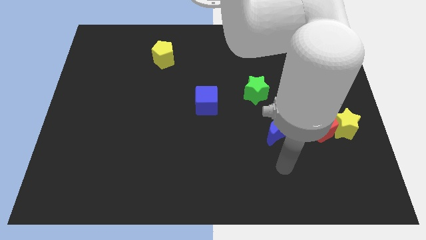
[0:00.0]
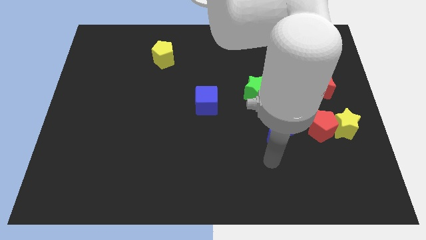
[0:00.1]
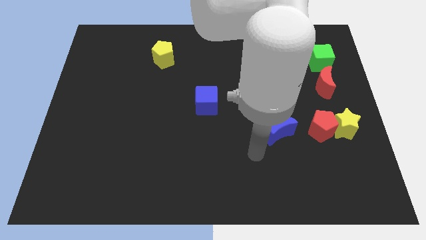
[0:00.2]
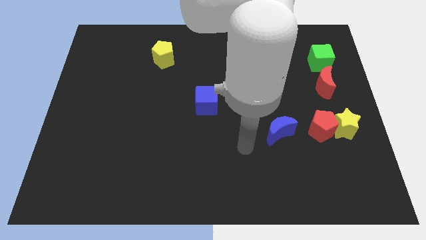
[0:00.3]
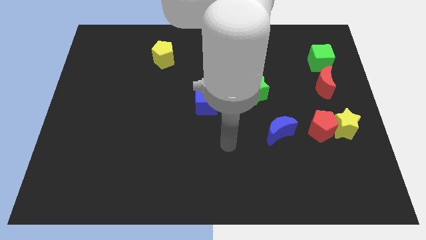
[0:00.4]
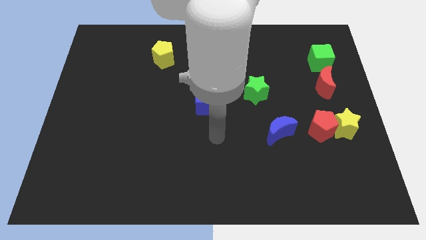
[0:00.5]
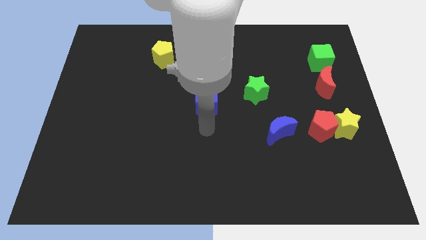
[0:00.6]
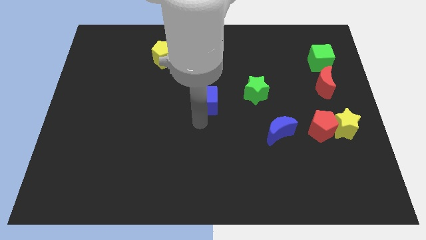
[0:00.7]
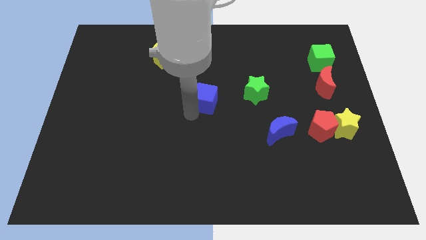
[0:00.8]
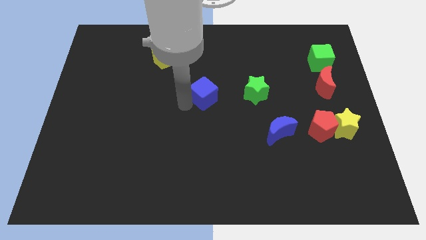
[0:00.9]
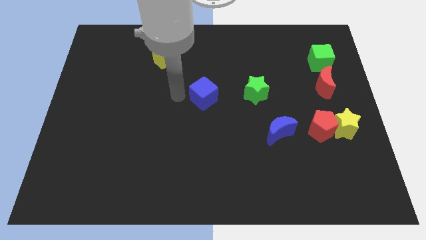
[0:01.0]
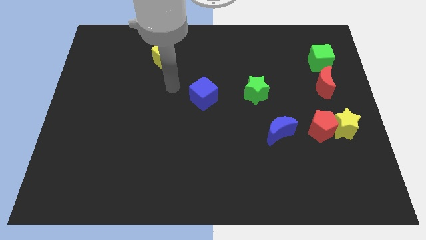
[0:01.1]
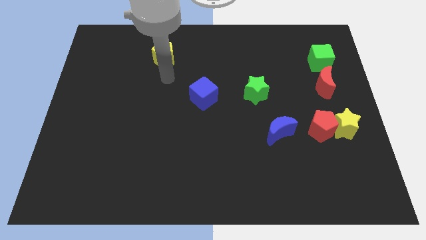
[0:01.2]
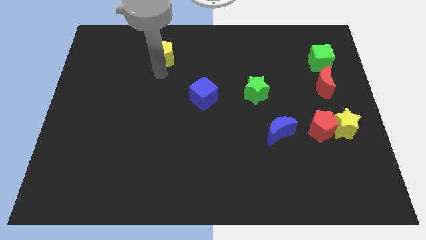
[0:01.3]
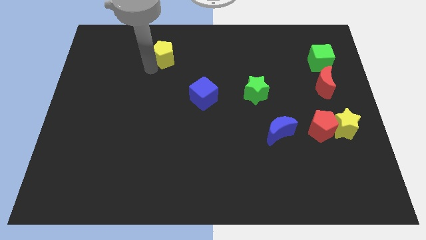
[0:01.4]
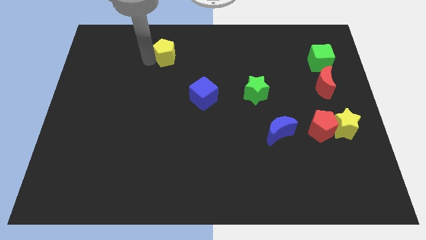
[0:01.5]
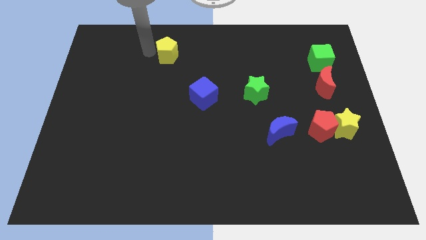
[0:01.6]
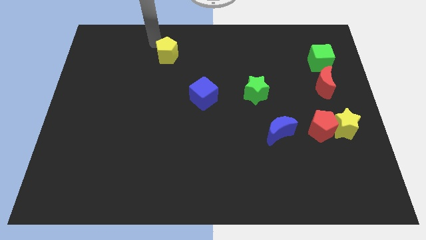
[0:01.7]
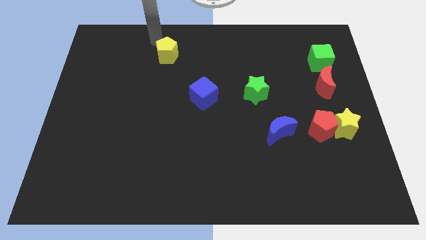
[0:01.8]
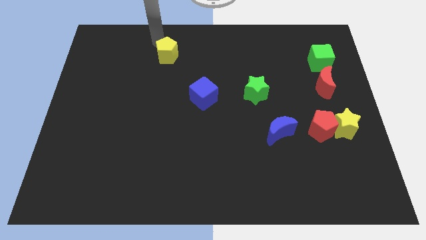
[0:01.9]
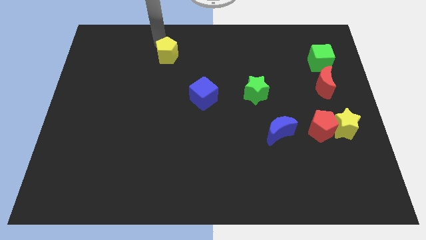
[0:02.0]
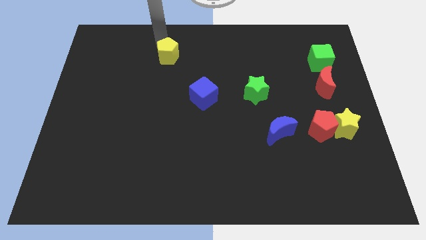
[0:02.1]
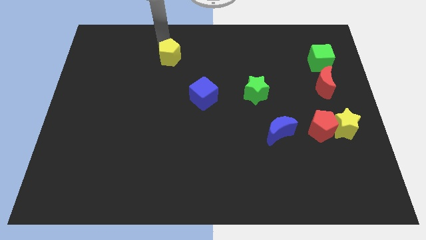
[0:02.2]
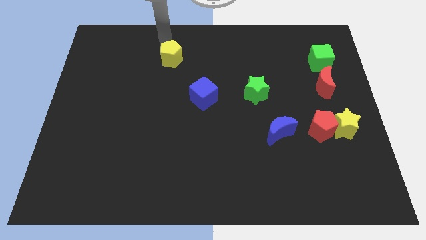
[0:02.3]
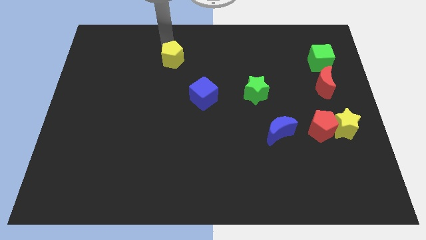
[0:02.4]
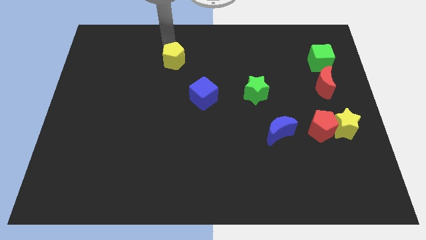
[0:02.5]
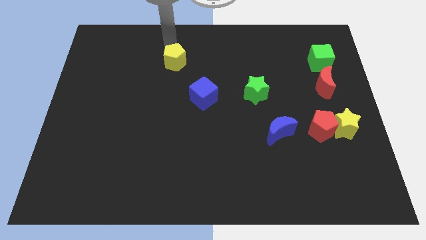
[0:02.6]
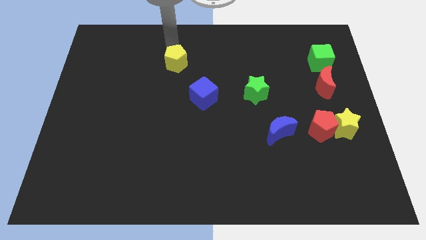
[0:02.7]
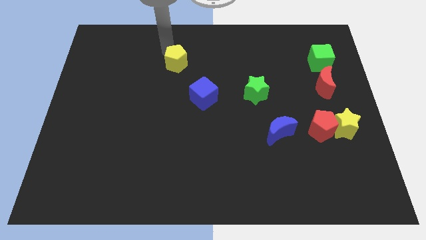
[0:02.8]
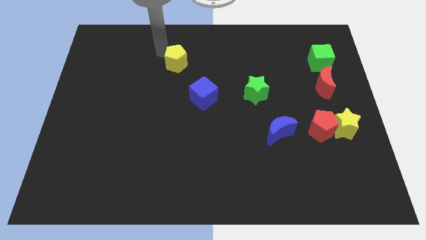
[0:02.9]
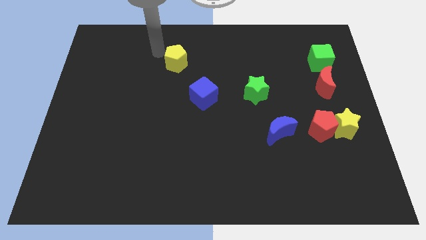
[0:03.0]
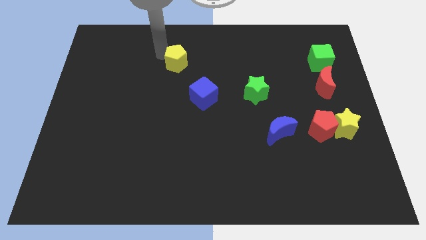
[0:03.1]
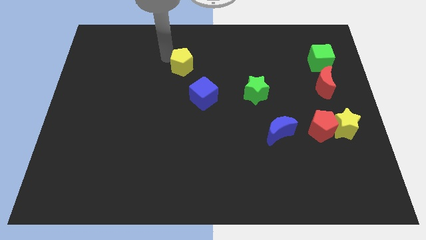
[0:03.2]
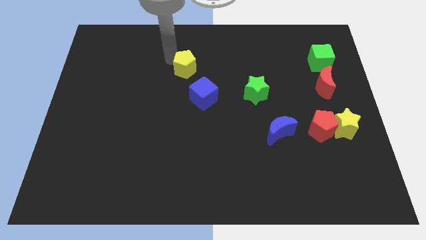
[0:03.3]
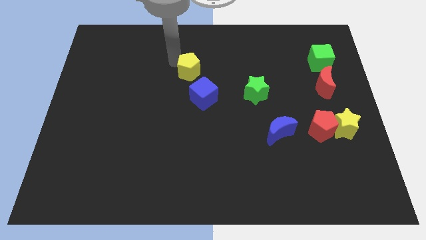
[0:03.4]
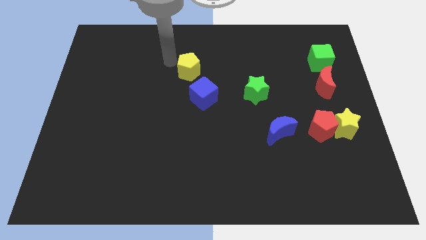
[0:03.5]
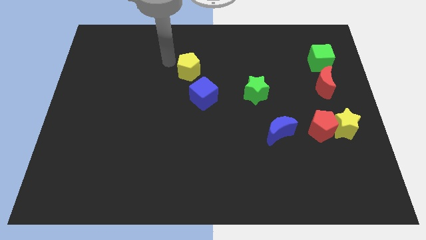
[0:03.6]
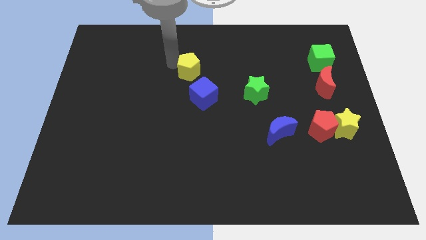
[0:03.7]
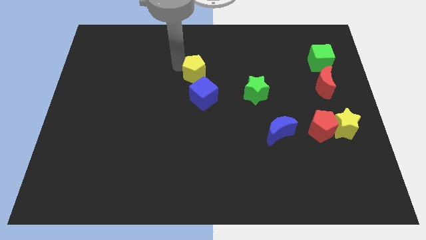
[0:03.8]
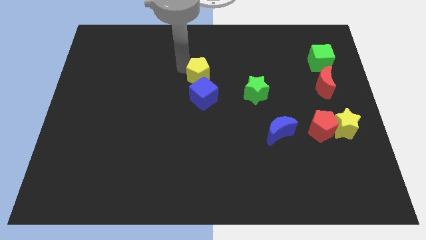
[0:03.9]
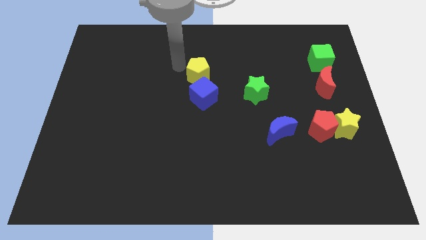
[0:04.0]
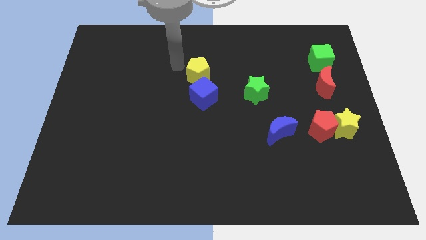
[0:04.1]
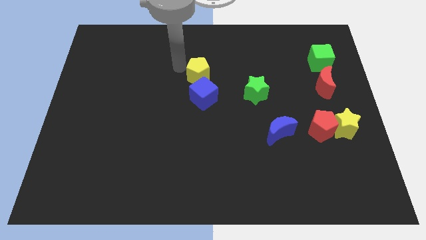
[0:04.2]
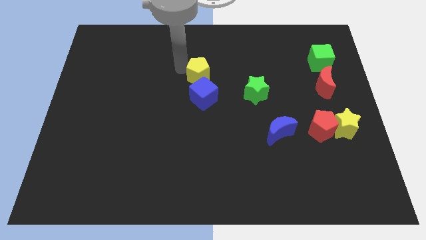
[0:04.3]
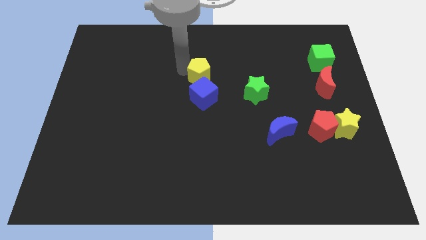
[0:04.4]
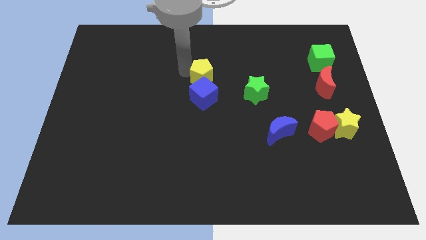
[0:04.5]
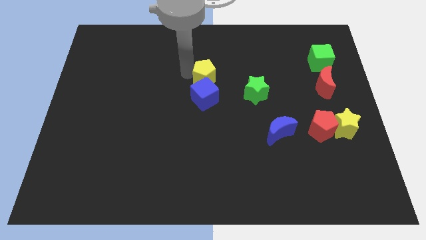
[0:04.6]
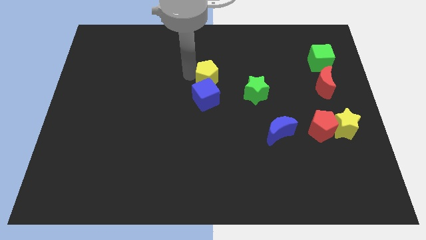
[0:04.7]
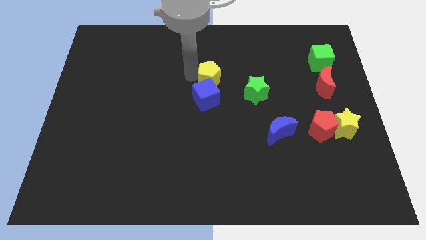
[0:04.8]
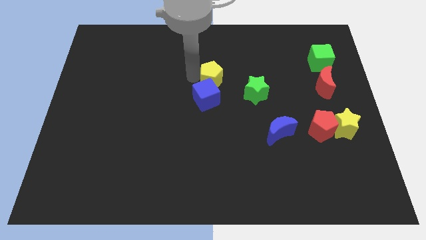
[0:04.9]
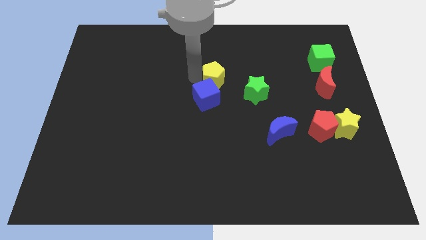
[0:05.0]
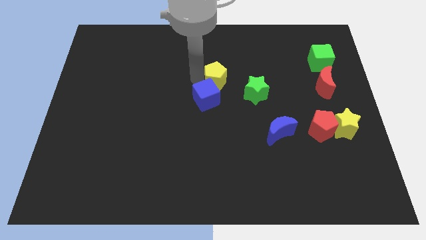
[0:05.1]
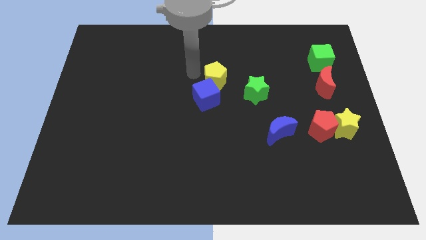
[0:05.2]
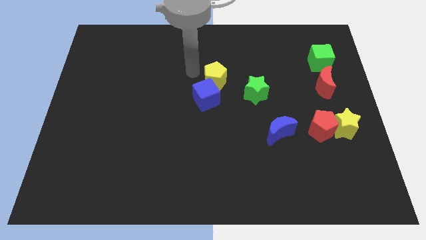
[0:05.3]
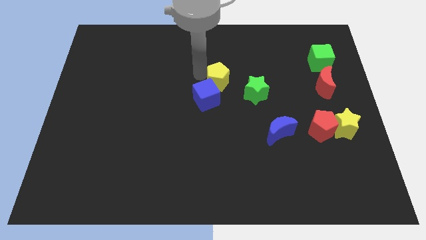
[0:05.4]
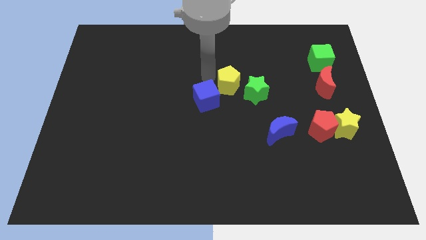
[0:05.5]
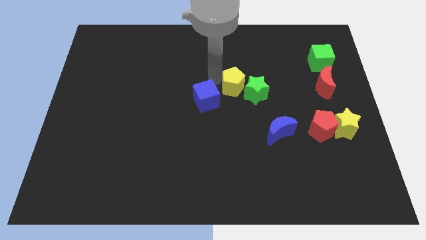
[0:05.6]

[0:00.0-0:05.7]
put the yellow pentagon close to the green star

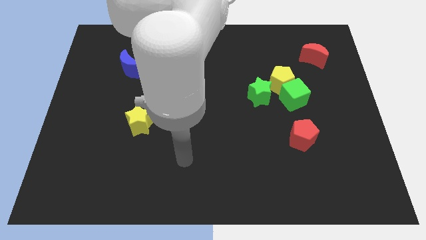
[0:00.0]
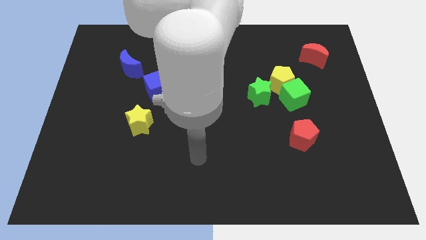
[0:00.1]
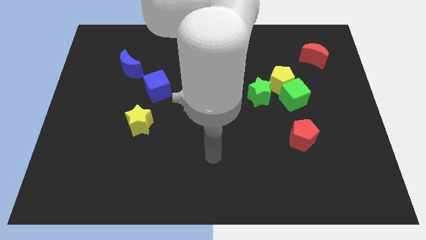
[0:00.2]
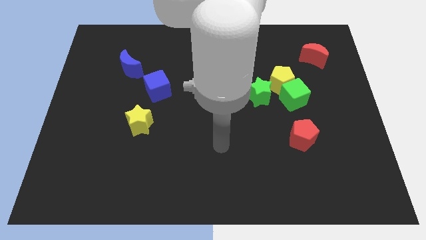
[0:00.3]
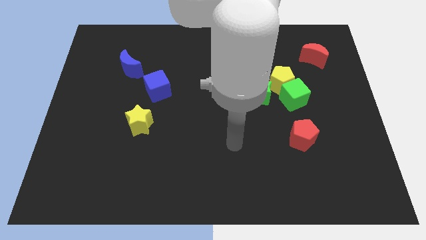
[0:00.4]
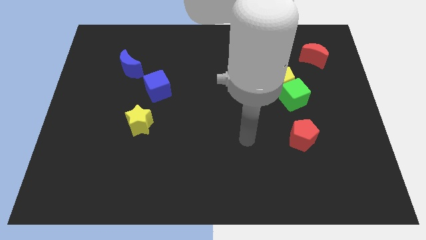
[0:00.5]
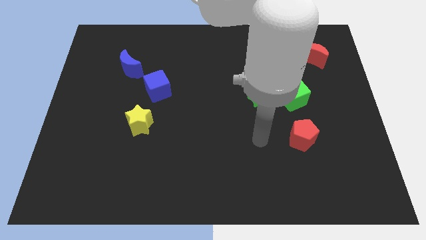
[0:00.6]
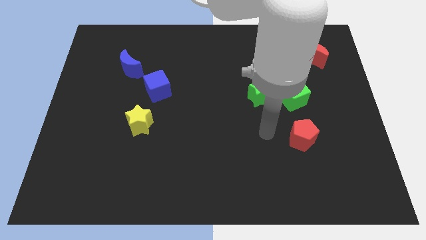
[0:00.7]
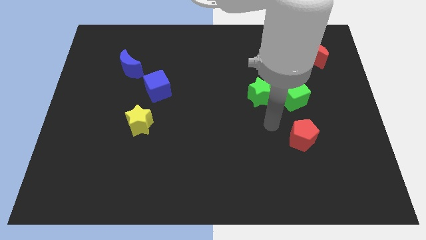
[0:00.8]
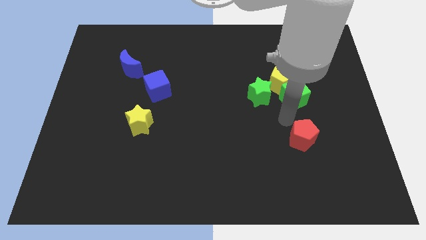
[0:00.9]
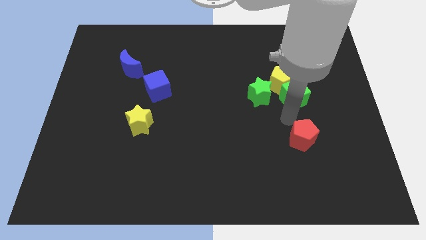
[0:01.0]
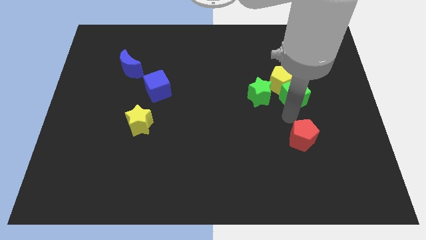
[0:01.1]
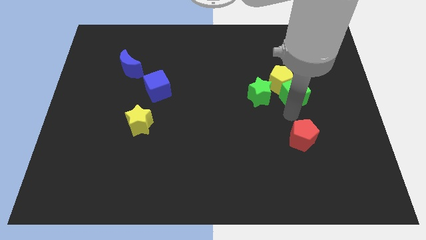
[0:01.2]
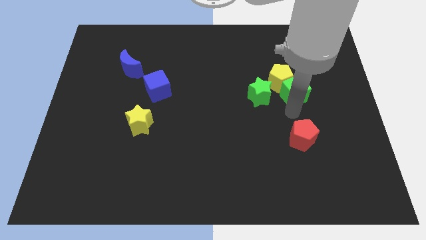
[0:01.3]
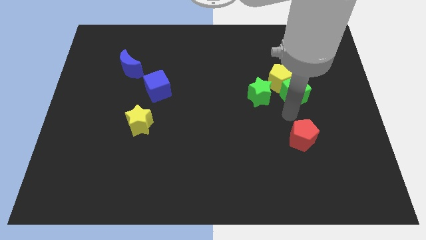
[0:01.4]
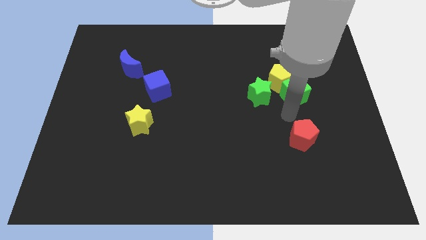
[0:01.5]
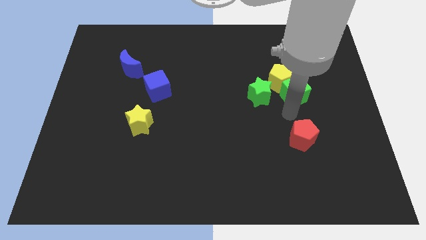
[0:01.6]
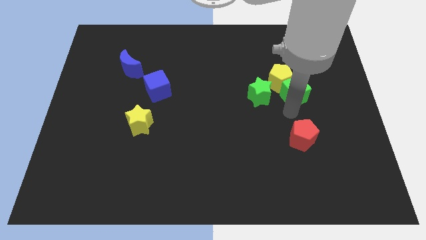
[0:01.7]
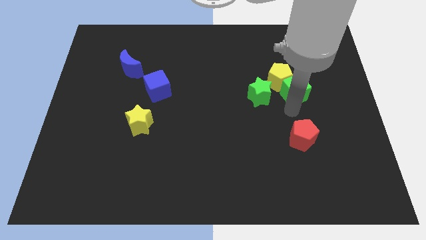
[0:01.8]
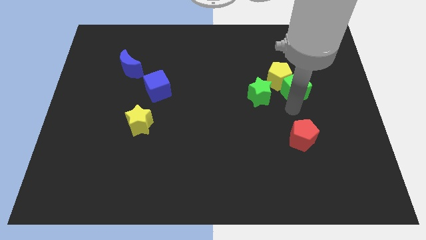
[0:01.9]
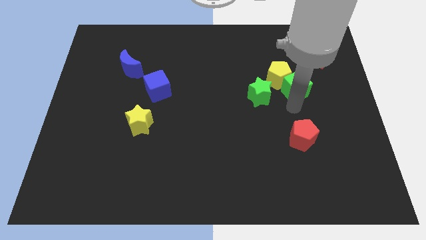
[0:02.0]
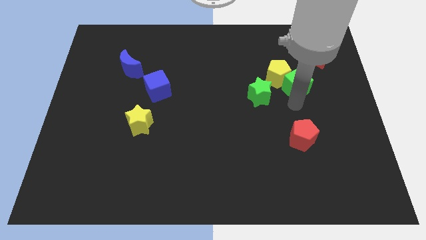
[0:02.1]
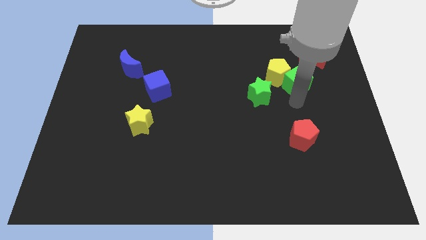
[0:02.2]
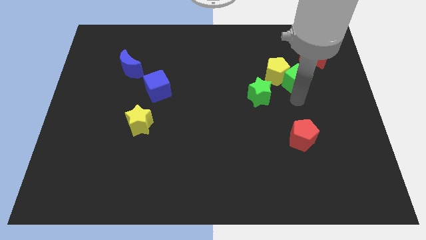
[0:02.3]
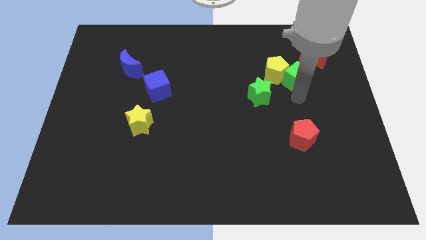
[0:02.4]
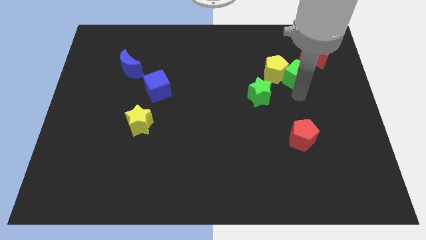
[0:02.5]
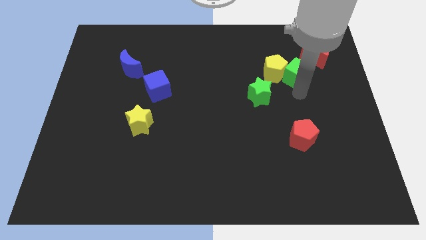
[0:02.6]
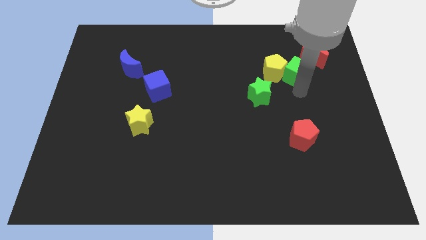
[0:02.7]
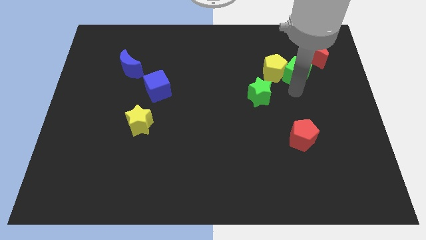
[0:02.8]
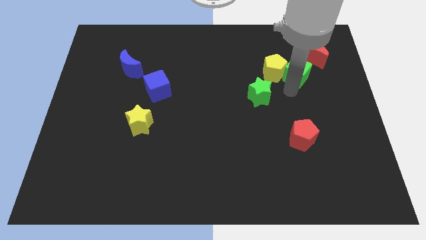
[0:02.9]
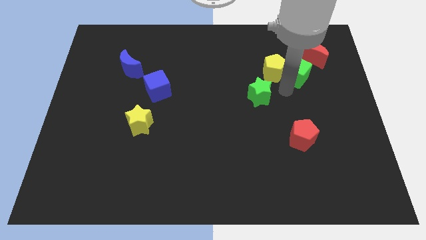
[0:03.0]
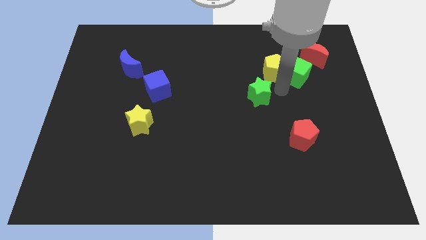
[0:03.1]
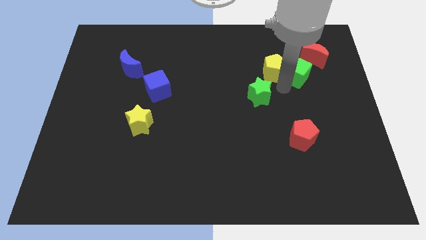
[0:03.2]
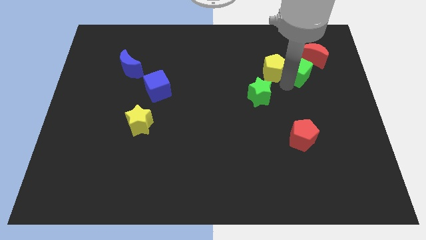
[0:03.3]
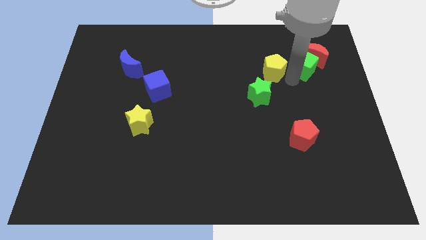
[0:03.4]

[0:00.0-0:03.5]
slide the green cube close to the red moon
